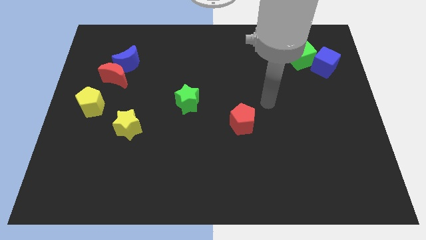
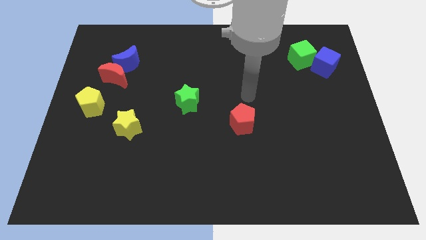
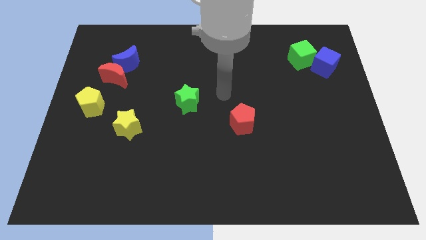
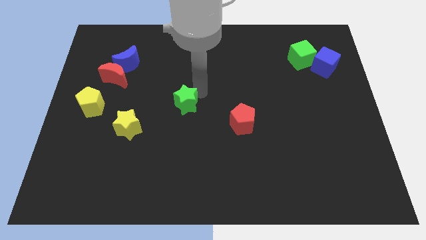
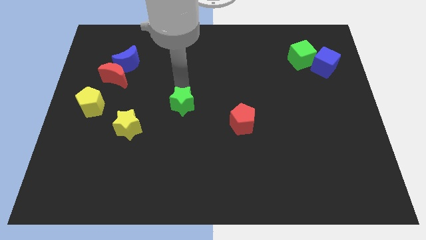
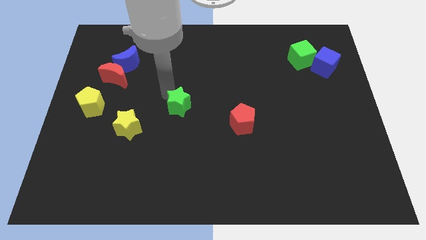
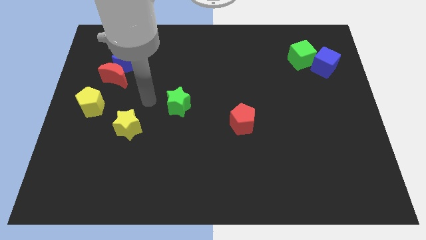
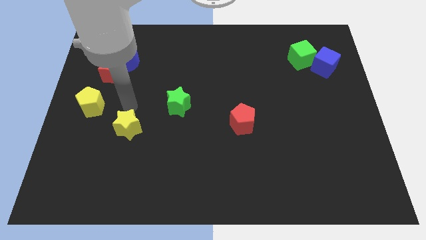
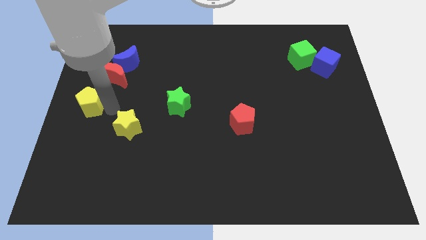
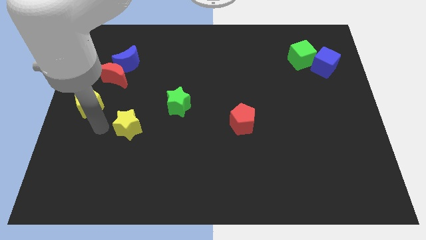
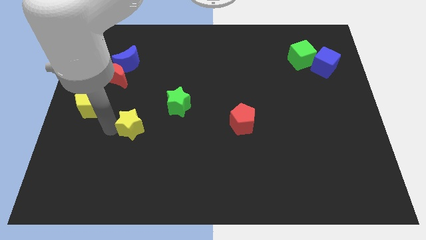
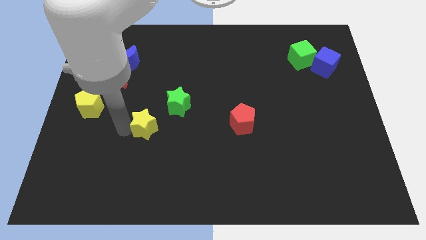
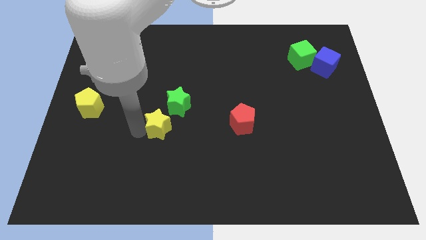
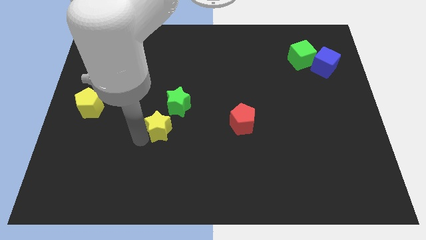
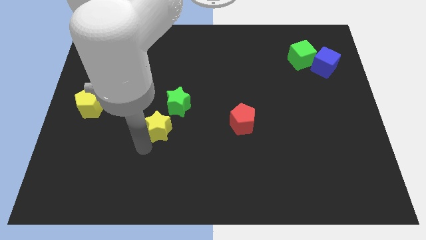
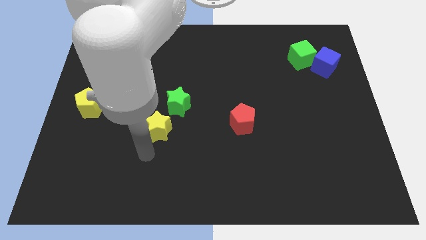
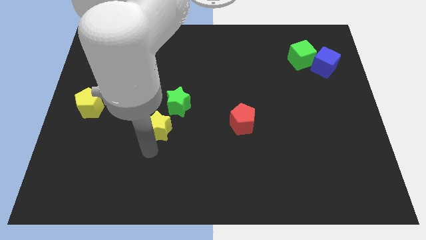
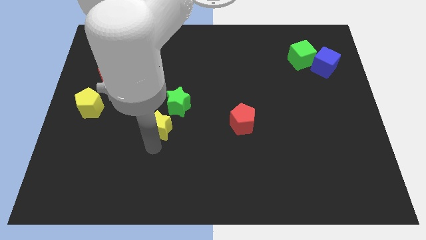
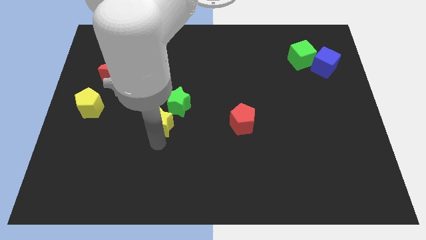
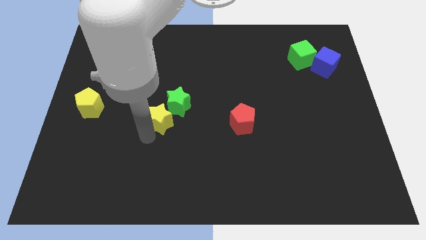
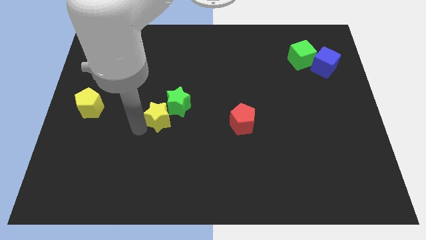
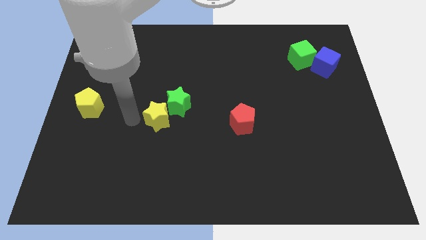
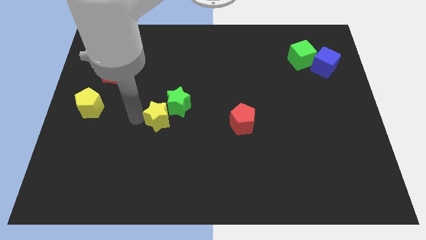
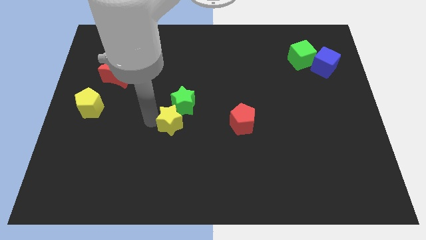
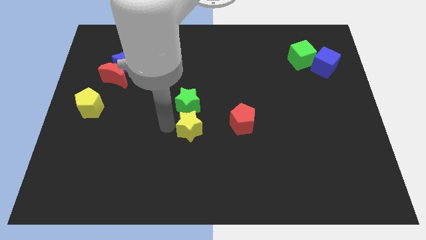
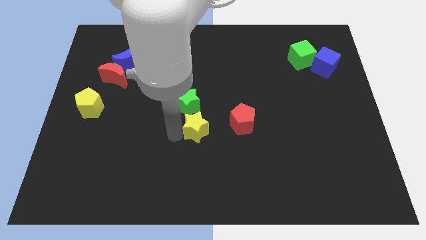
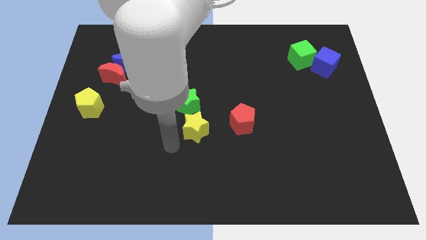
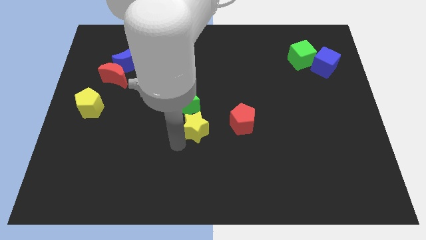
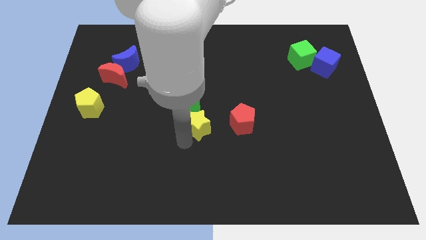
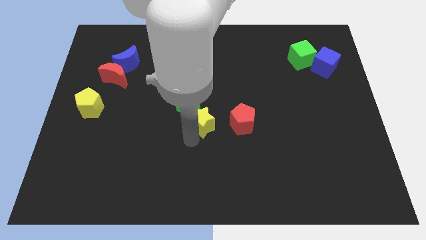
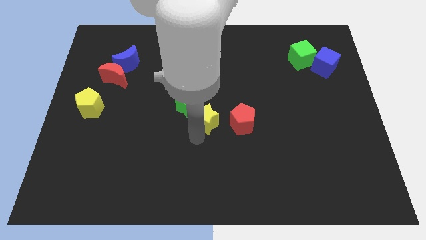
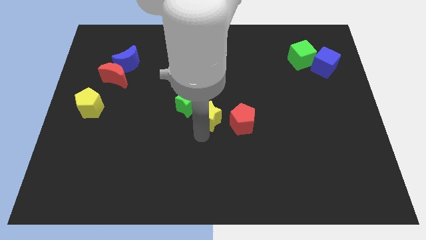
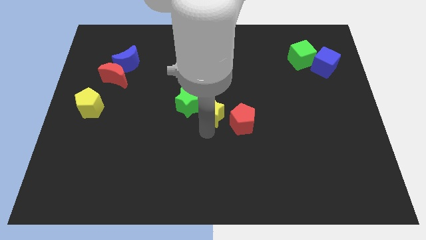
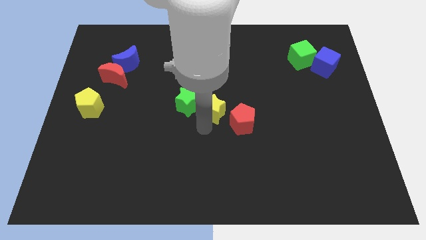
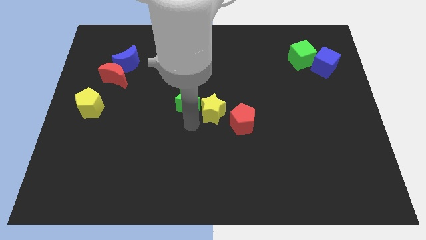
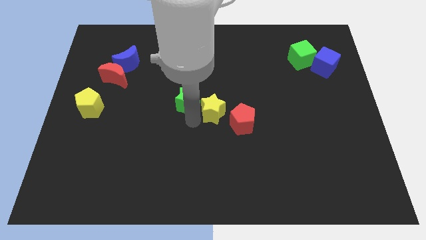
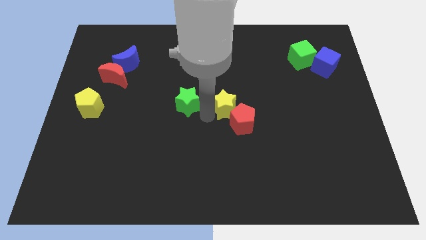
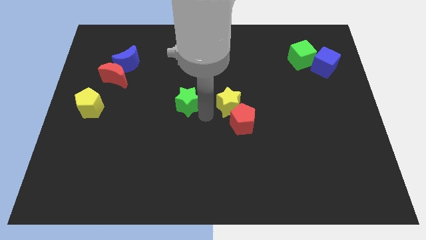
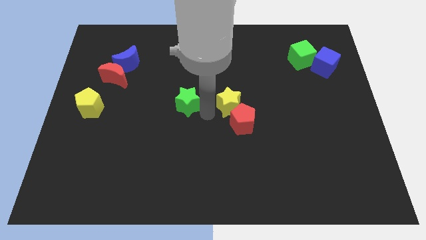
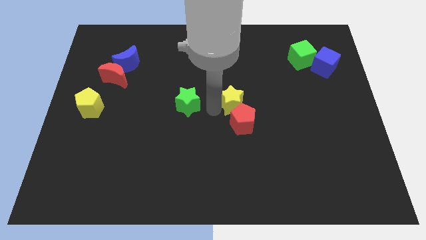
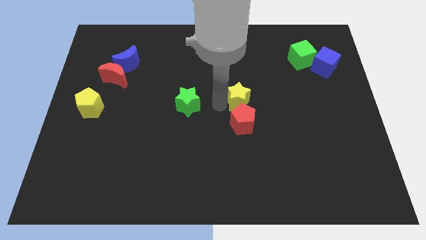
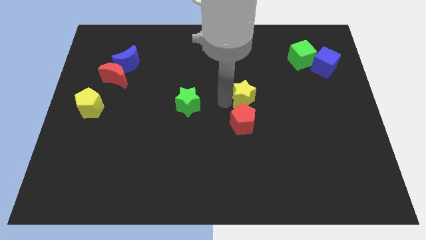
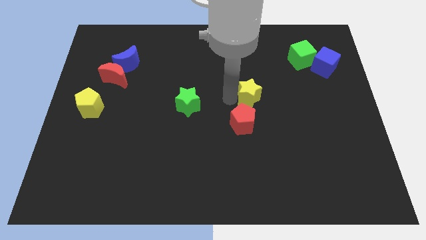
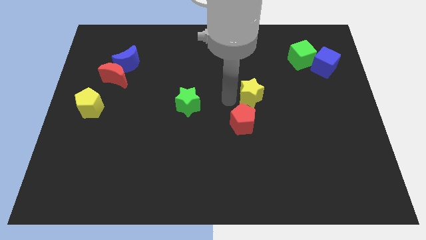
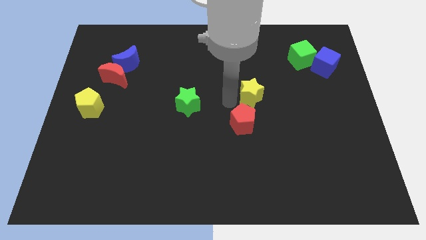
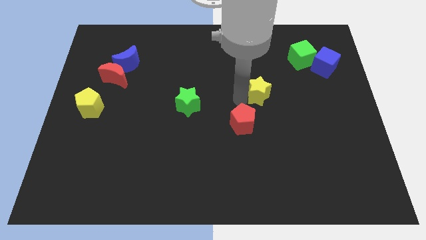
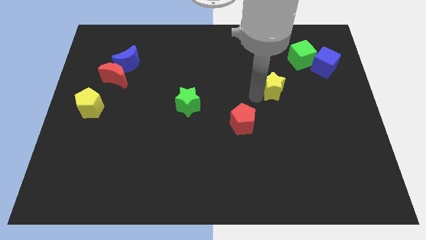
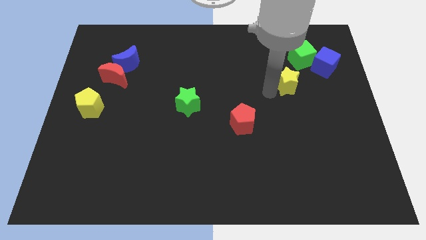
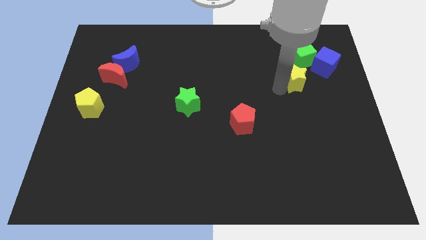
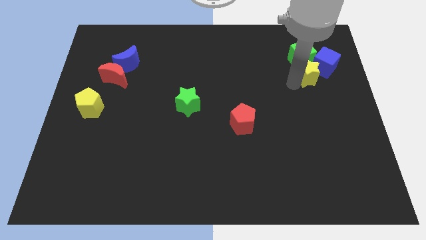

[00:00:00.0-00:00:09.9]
put the yellow star towards the blue cube

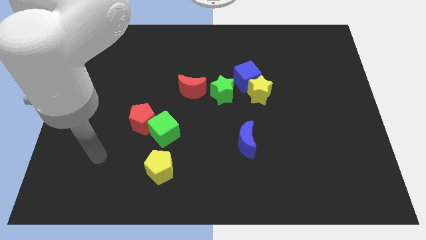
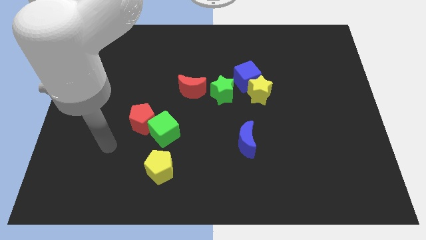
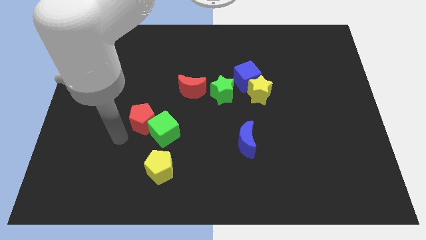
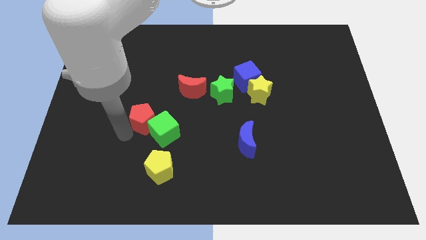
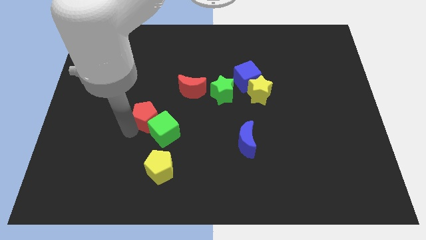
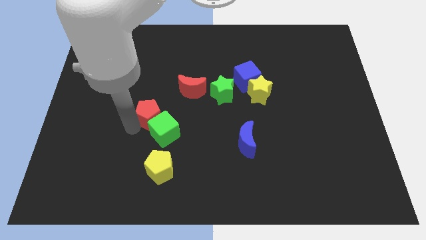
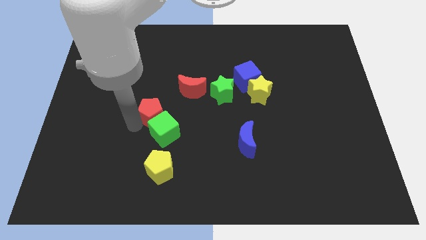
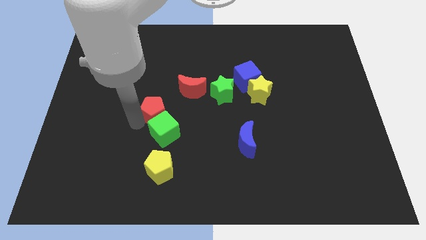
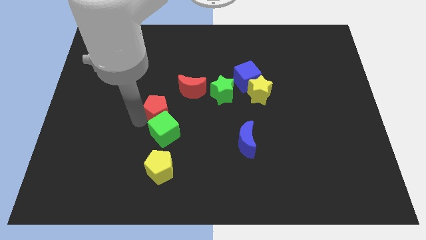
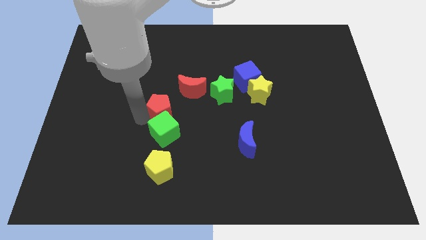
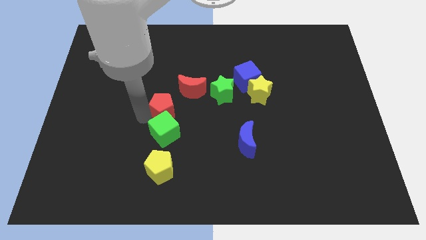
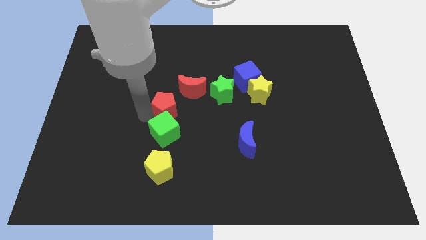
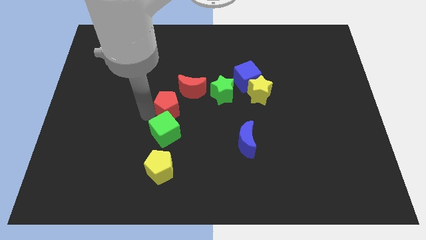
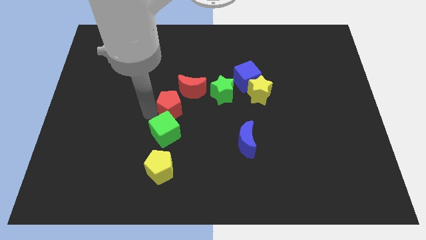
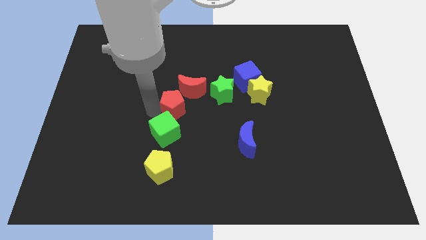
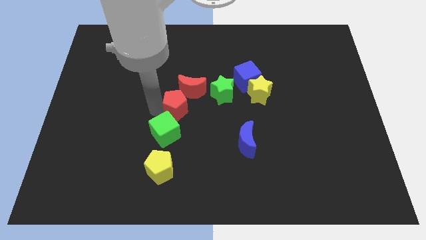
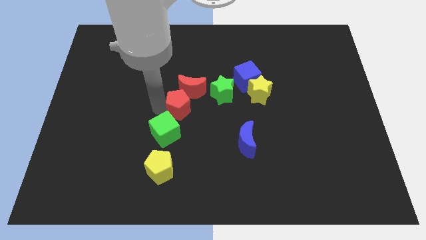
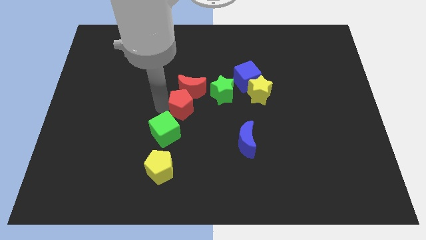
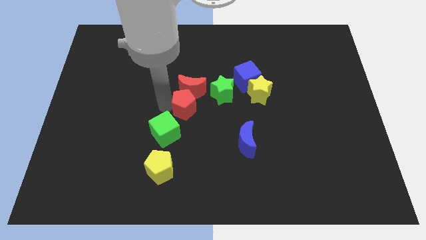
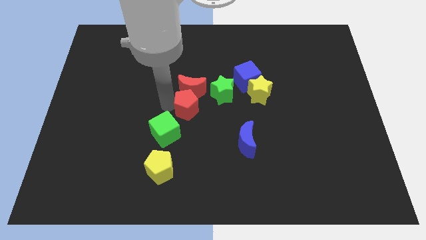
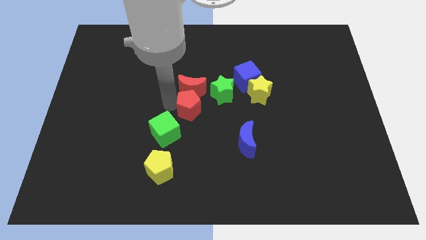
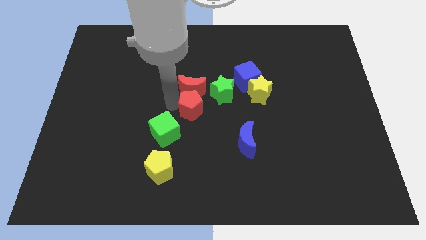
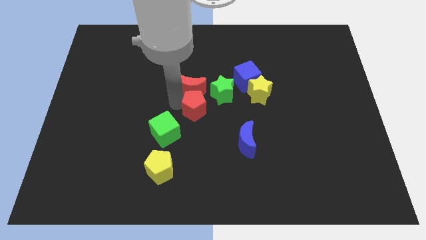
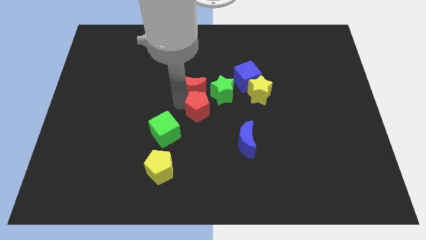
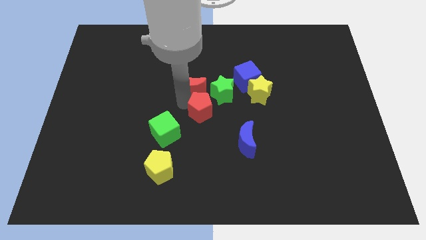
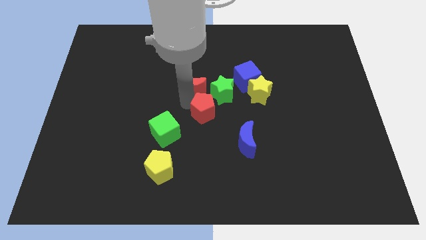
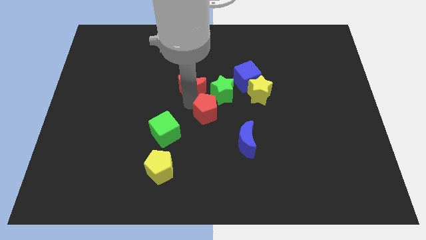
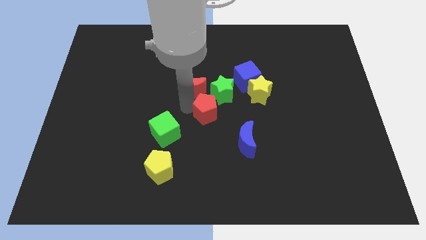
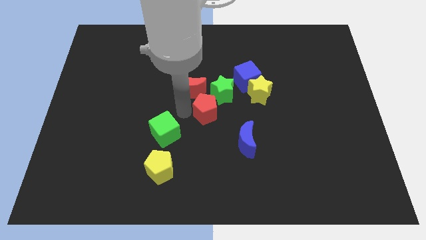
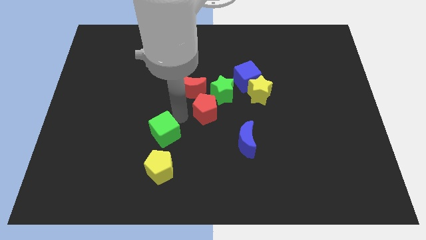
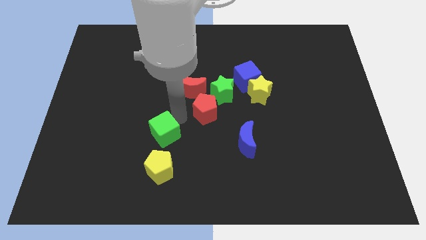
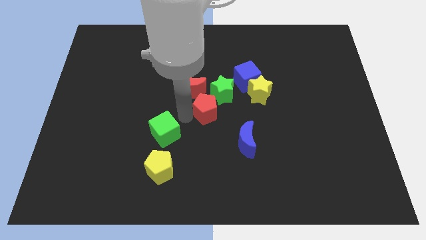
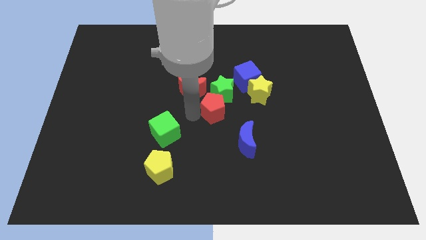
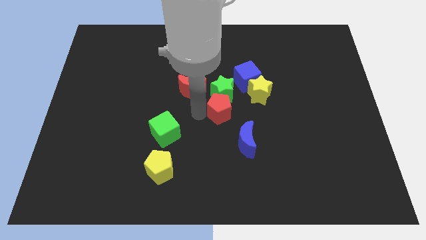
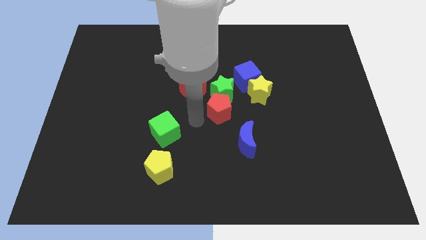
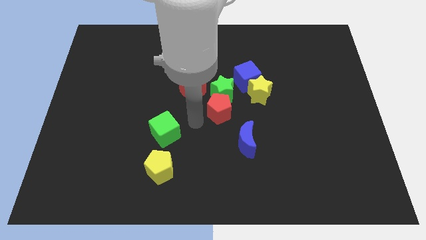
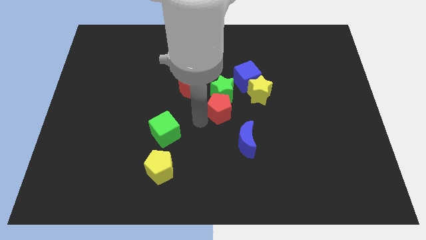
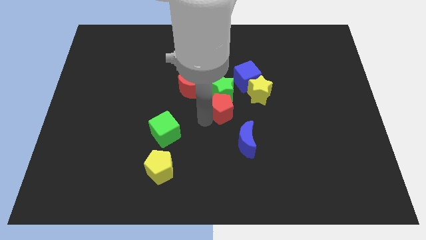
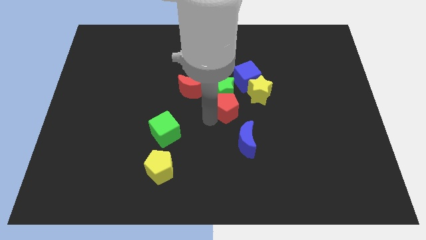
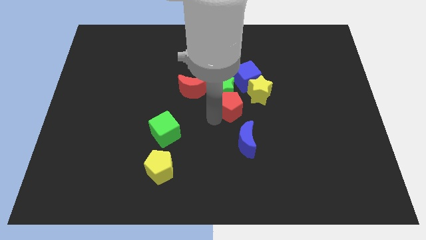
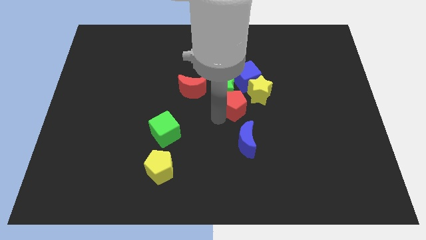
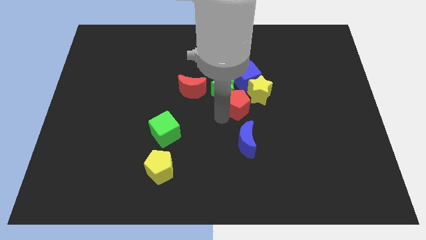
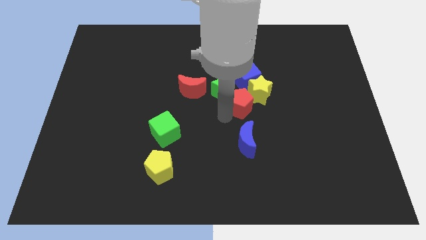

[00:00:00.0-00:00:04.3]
slide the red pentagon next to the yellow star
